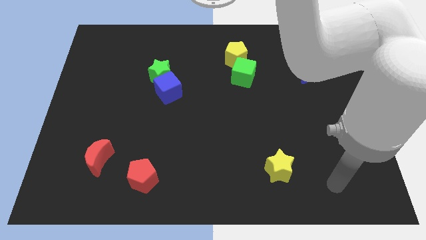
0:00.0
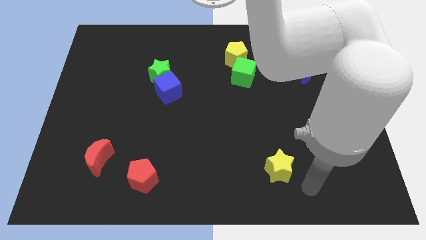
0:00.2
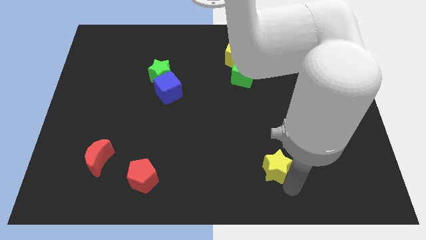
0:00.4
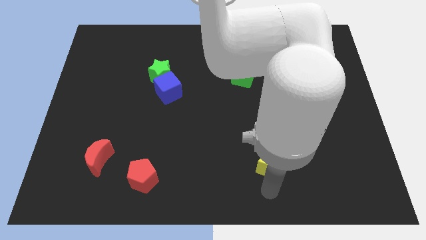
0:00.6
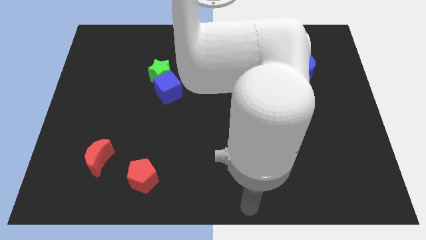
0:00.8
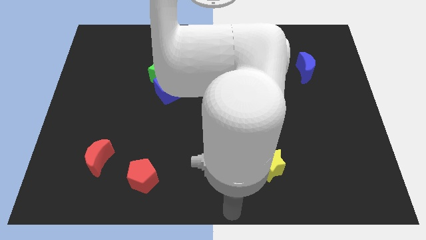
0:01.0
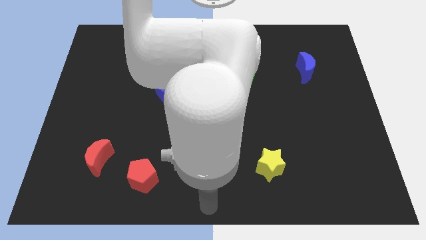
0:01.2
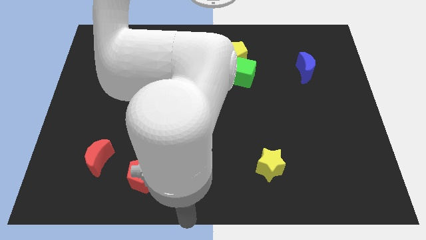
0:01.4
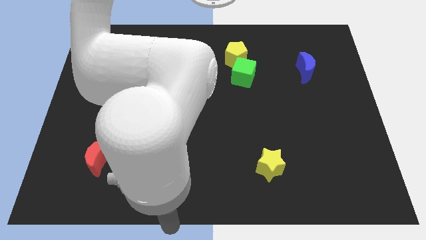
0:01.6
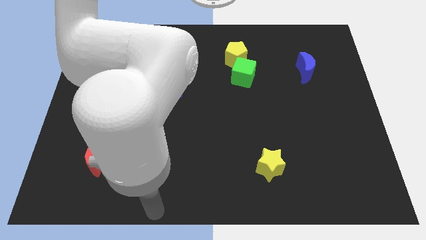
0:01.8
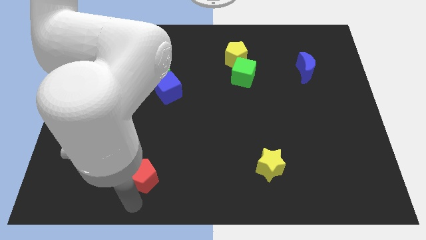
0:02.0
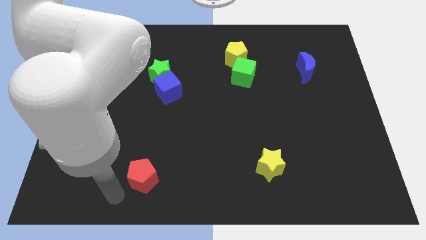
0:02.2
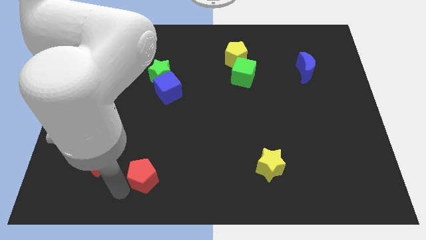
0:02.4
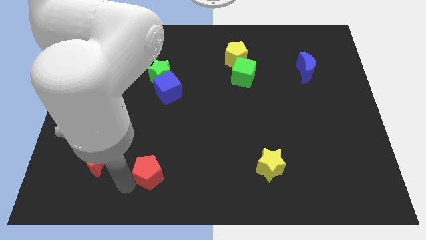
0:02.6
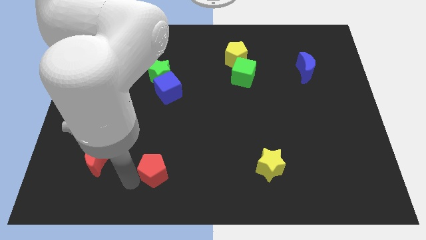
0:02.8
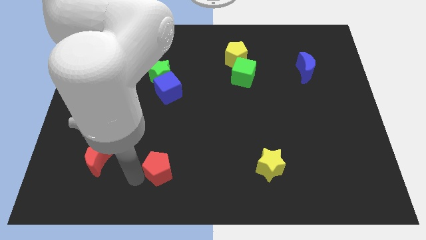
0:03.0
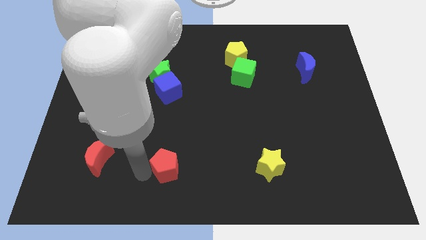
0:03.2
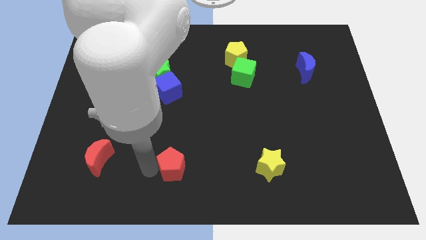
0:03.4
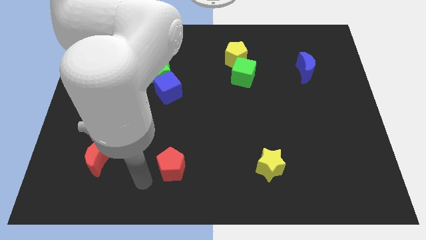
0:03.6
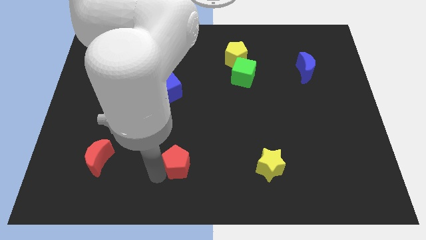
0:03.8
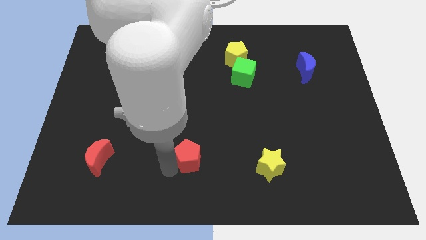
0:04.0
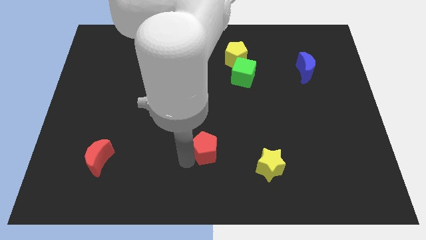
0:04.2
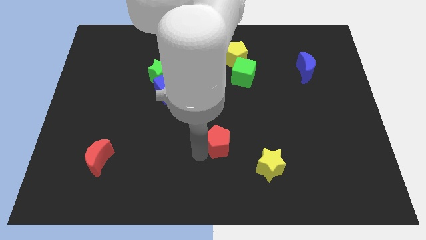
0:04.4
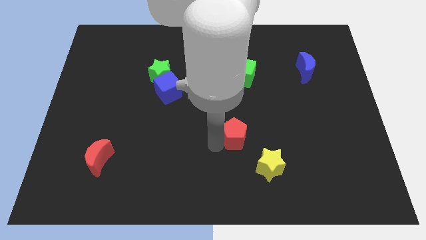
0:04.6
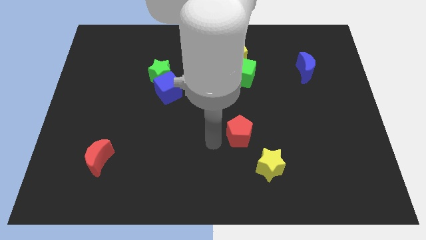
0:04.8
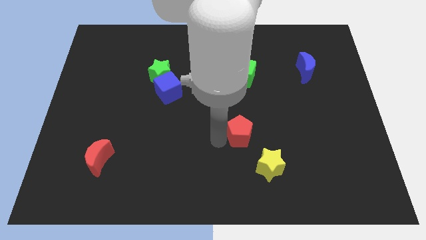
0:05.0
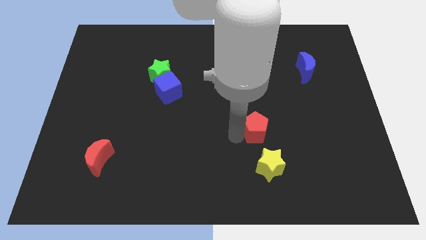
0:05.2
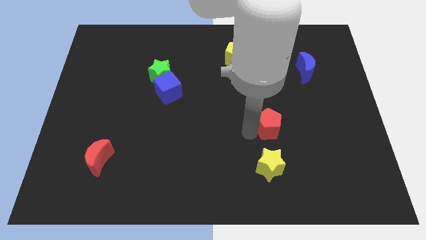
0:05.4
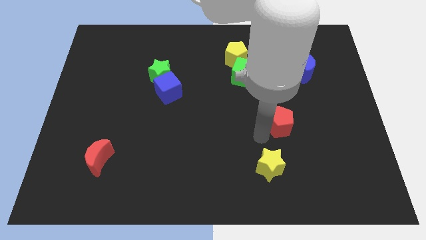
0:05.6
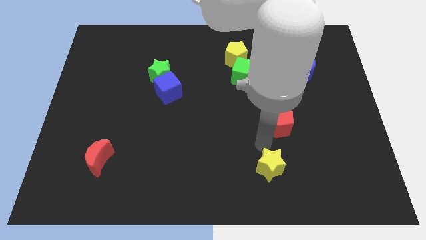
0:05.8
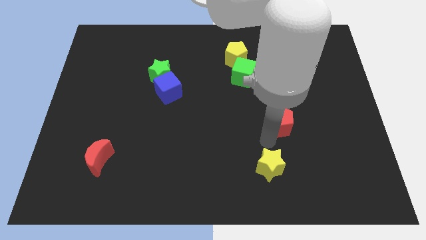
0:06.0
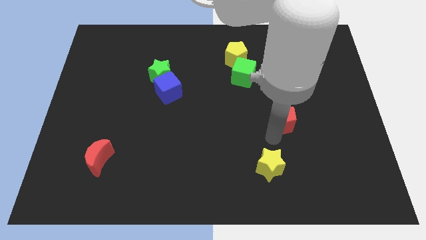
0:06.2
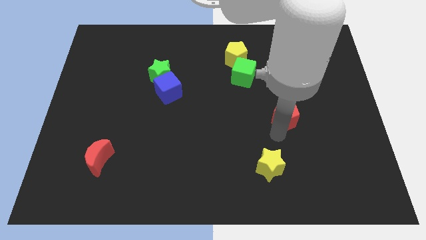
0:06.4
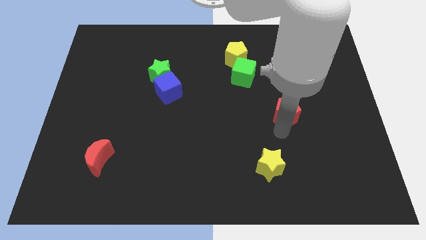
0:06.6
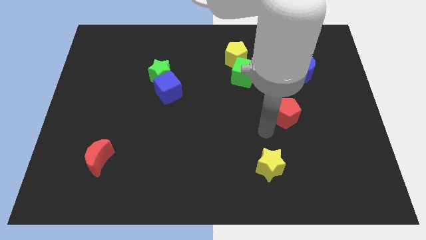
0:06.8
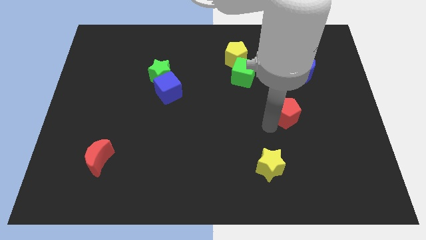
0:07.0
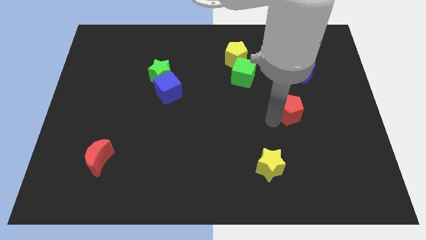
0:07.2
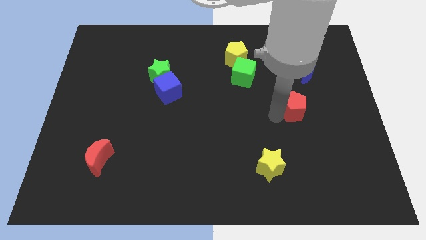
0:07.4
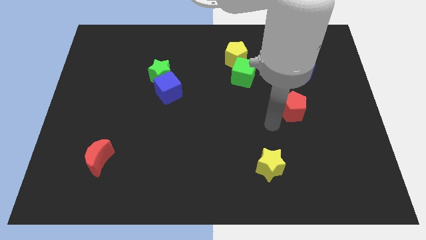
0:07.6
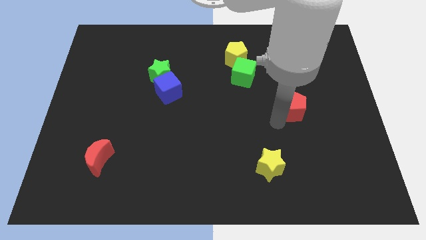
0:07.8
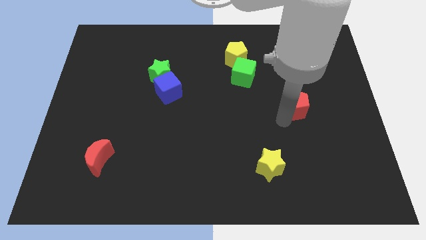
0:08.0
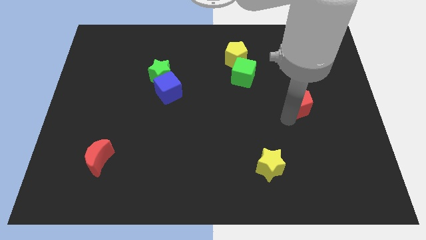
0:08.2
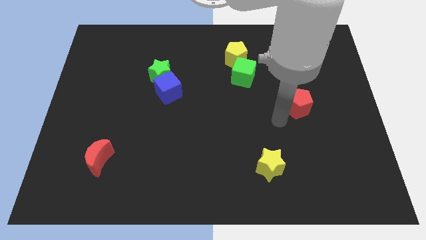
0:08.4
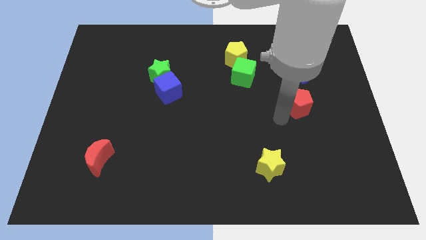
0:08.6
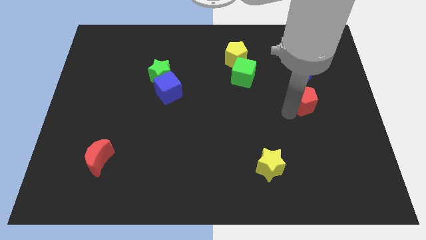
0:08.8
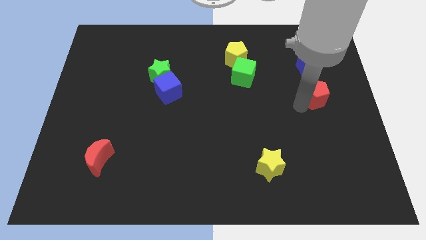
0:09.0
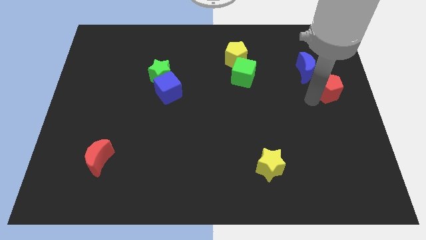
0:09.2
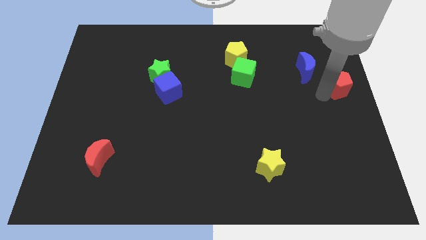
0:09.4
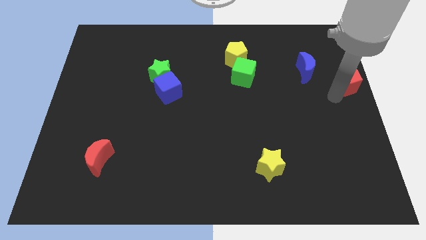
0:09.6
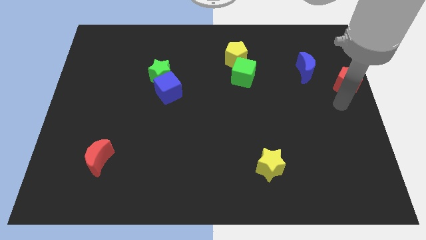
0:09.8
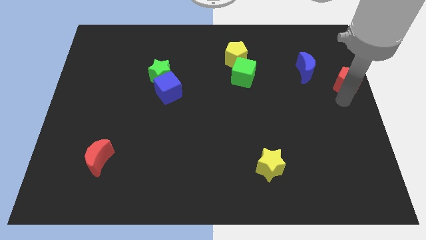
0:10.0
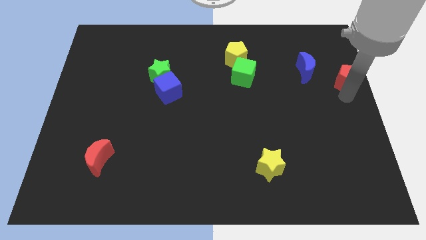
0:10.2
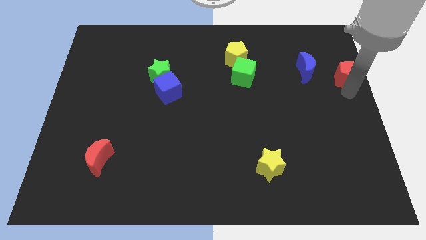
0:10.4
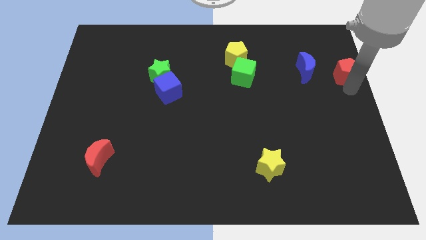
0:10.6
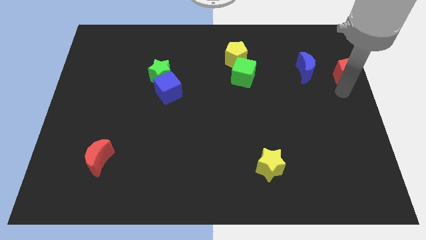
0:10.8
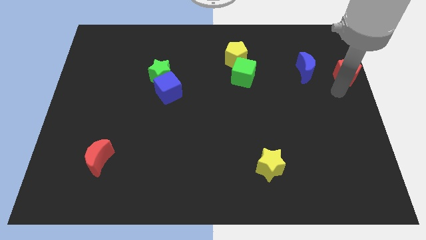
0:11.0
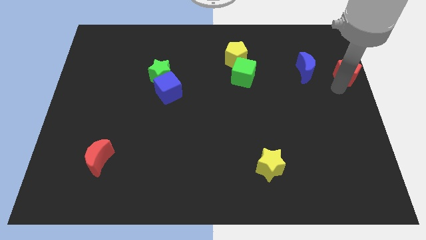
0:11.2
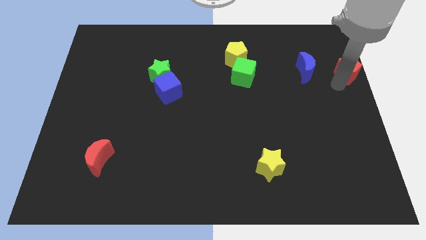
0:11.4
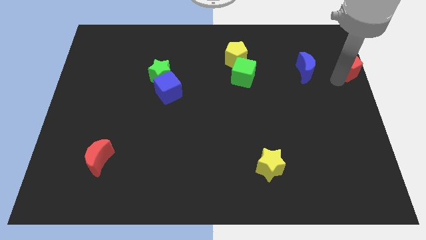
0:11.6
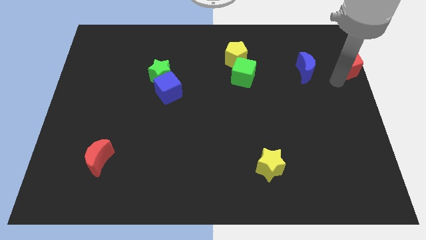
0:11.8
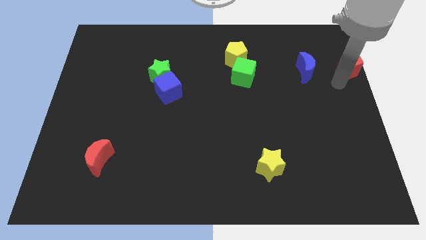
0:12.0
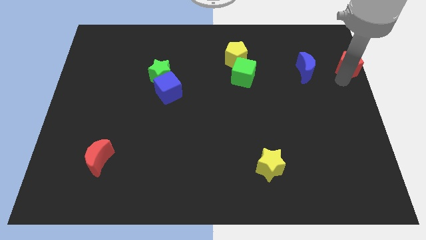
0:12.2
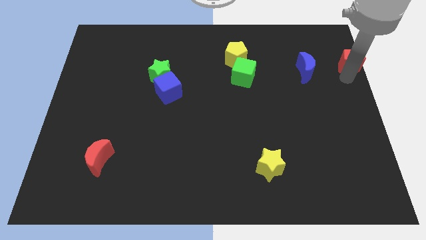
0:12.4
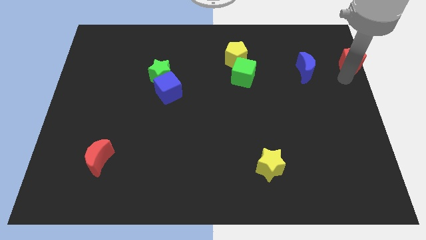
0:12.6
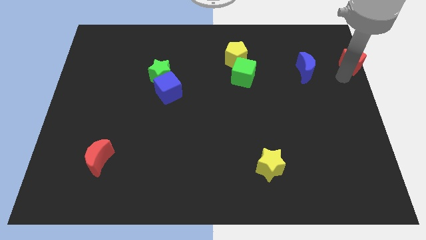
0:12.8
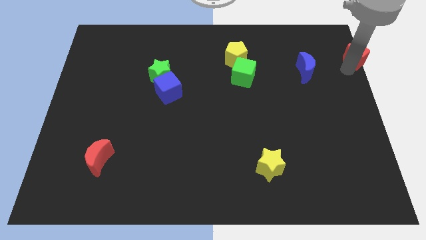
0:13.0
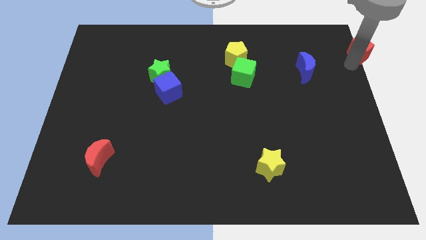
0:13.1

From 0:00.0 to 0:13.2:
move the red pentagon to the top right corner

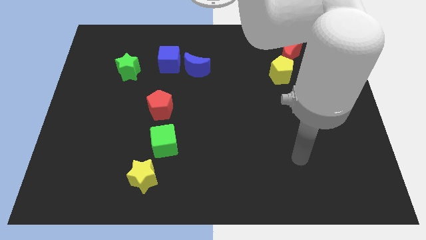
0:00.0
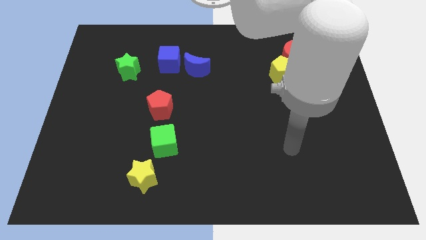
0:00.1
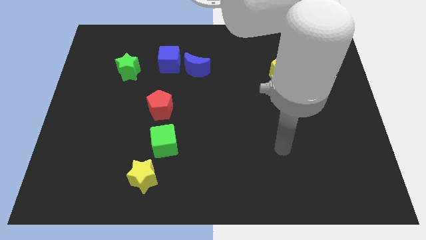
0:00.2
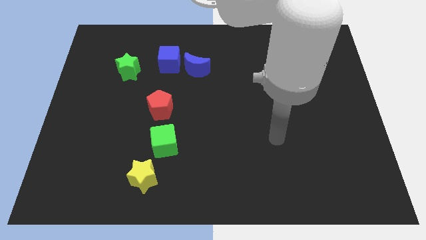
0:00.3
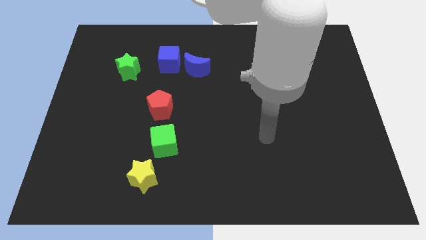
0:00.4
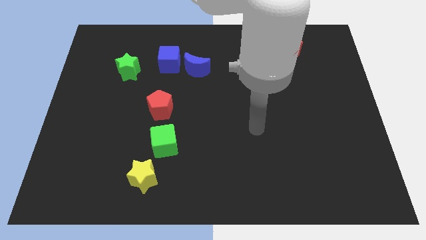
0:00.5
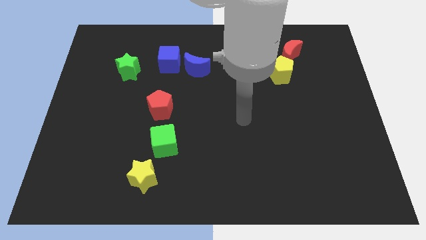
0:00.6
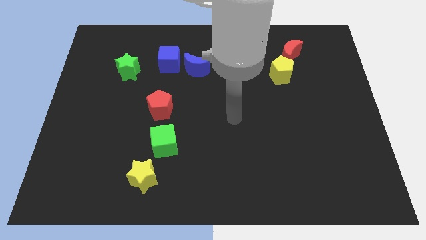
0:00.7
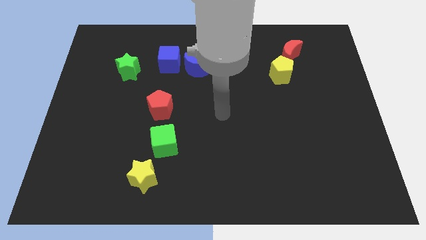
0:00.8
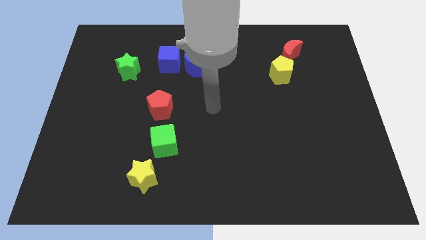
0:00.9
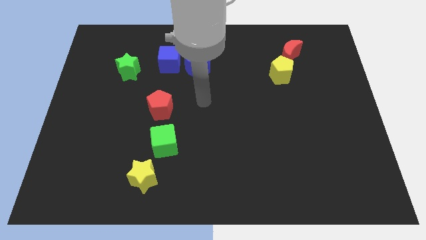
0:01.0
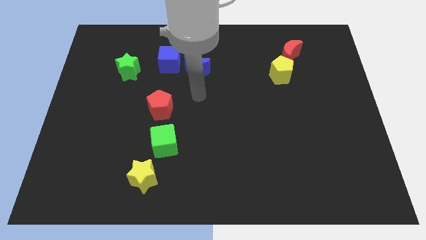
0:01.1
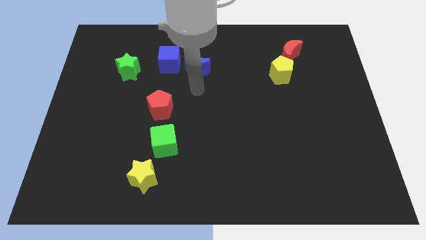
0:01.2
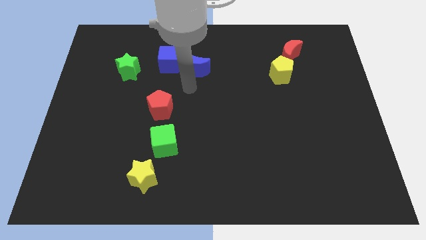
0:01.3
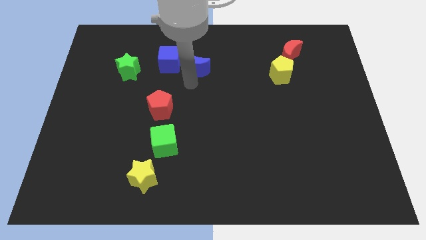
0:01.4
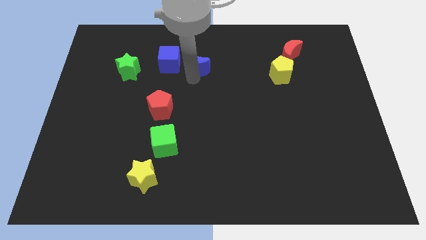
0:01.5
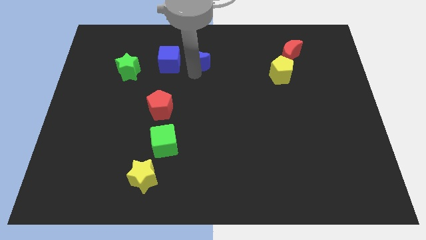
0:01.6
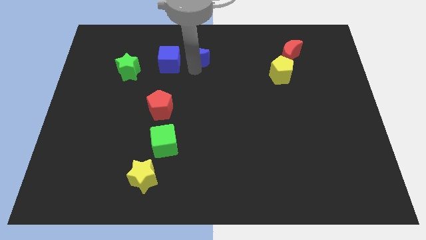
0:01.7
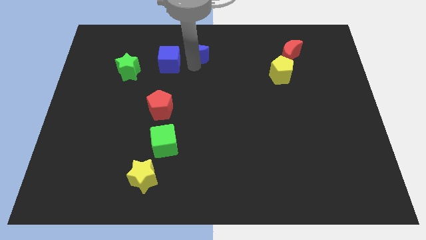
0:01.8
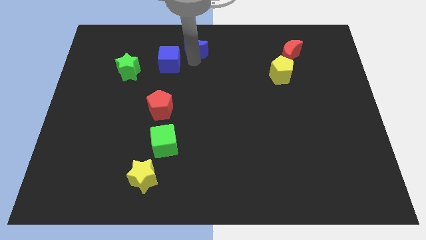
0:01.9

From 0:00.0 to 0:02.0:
push the blue moon to the towards your base
